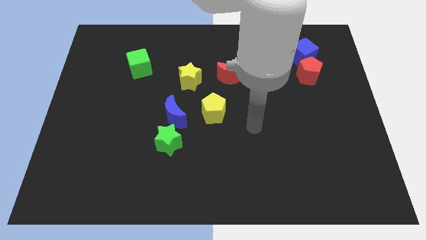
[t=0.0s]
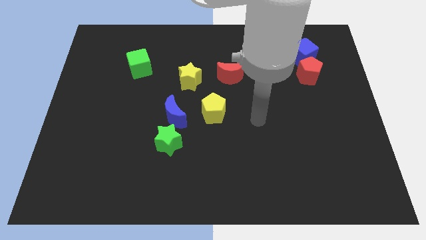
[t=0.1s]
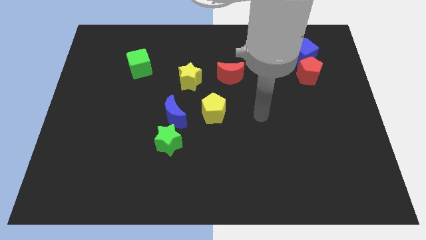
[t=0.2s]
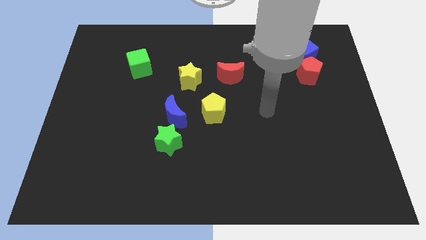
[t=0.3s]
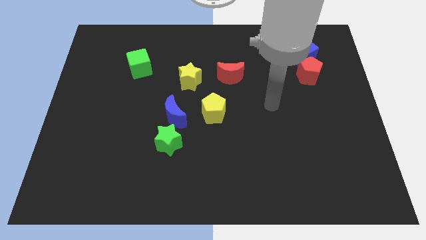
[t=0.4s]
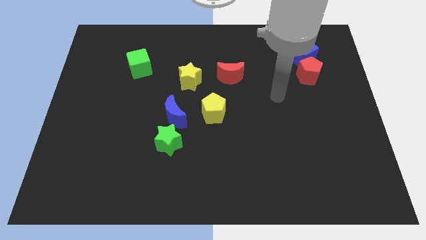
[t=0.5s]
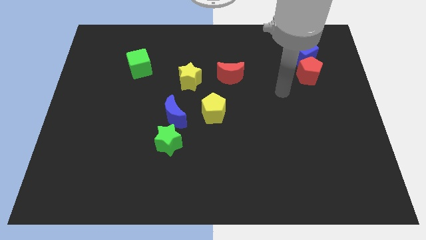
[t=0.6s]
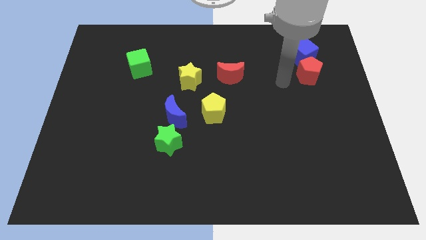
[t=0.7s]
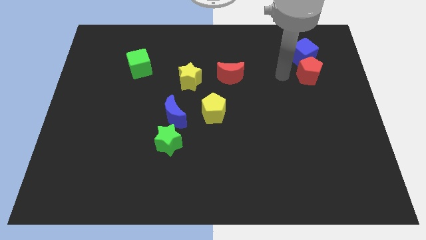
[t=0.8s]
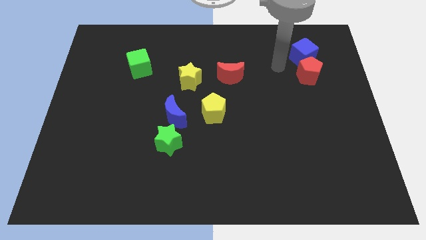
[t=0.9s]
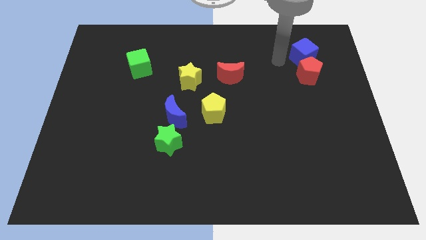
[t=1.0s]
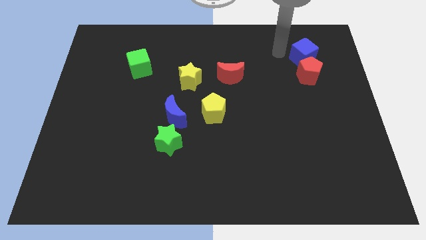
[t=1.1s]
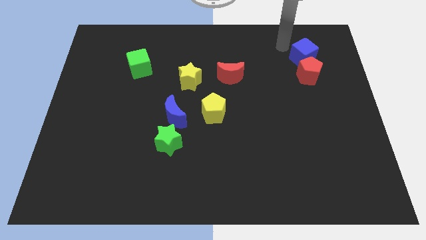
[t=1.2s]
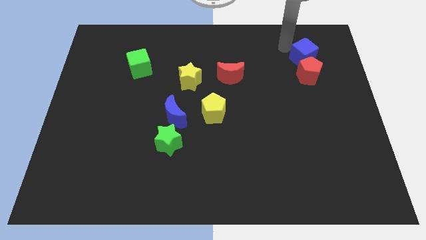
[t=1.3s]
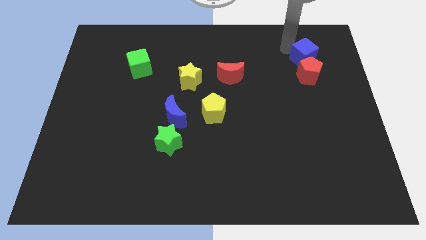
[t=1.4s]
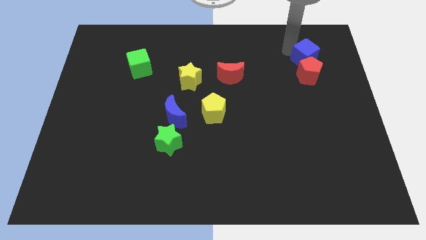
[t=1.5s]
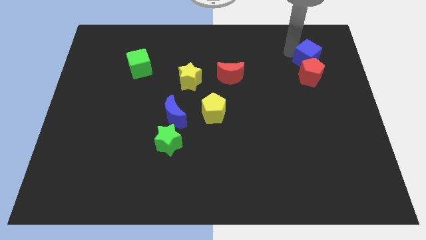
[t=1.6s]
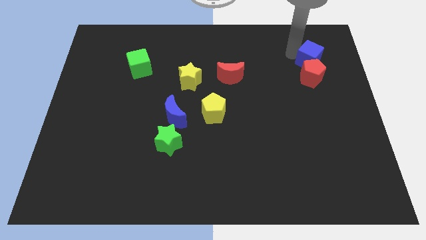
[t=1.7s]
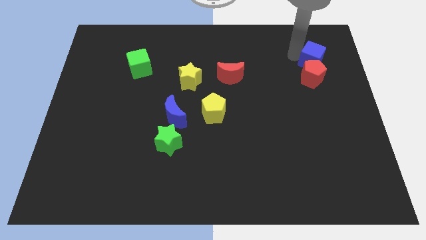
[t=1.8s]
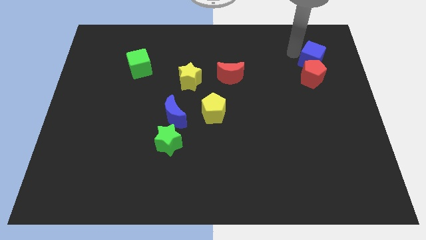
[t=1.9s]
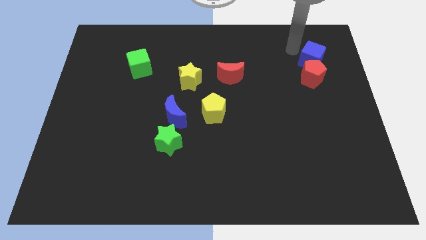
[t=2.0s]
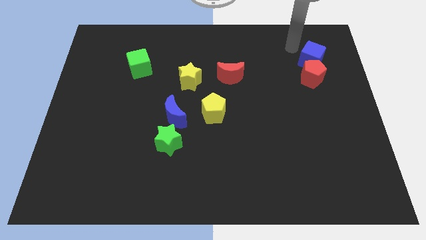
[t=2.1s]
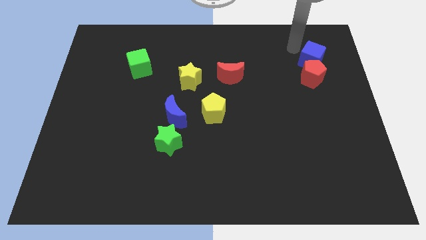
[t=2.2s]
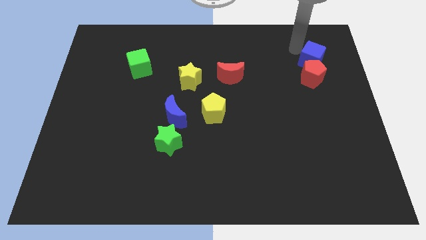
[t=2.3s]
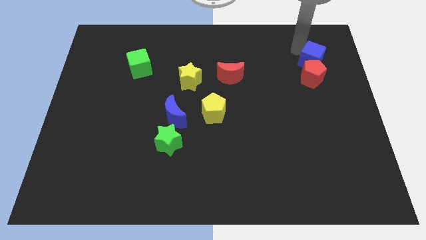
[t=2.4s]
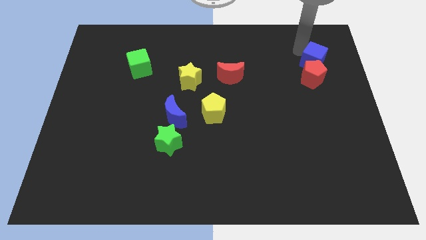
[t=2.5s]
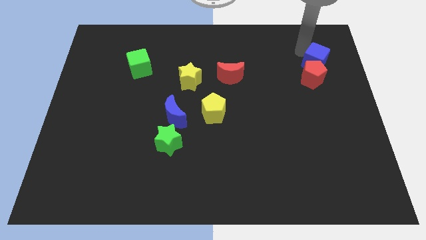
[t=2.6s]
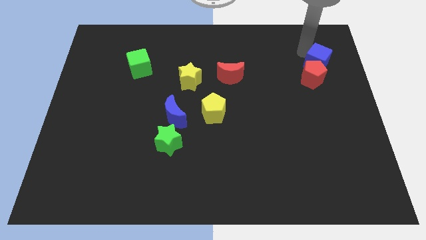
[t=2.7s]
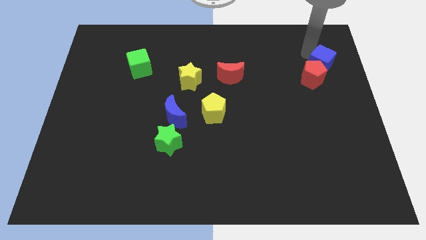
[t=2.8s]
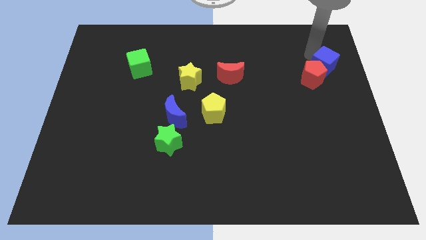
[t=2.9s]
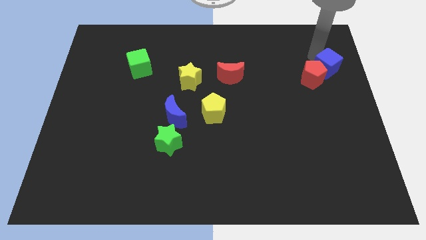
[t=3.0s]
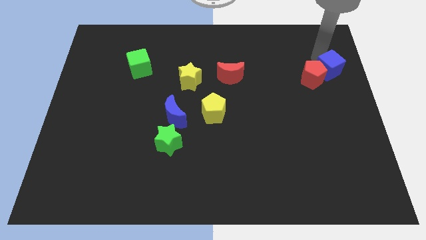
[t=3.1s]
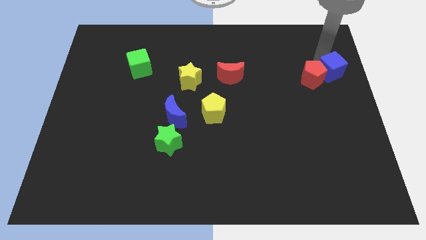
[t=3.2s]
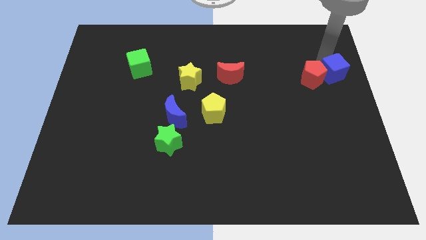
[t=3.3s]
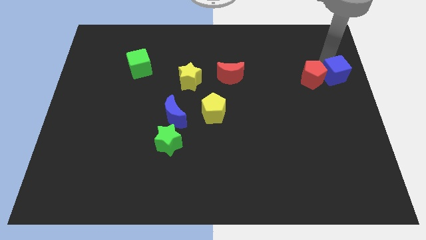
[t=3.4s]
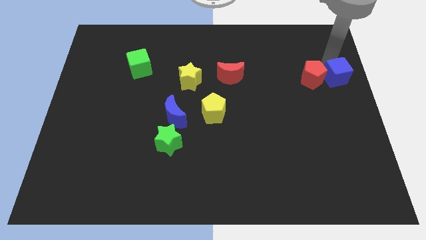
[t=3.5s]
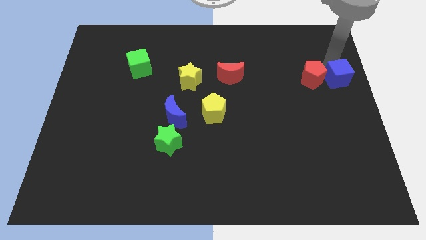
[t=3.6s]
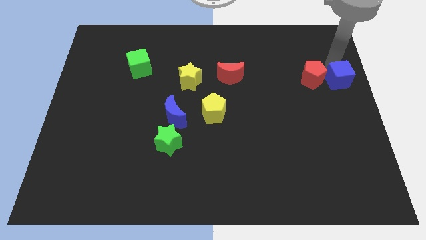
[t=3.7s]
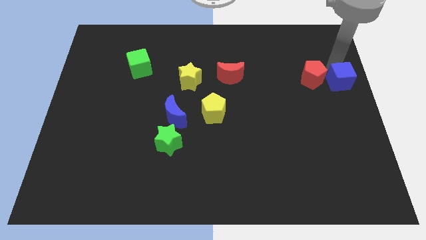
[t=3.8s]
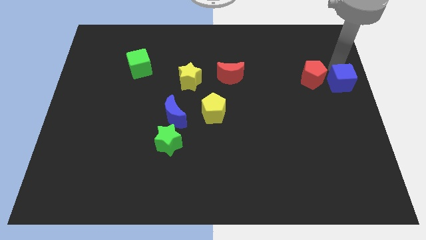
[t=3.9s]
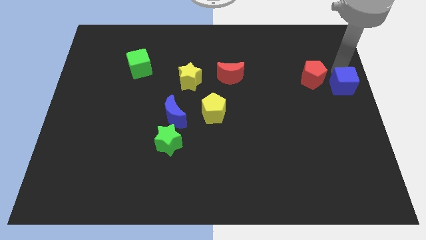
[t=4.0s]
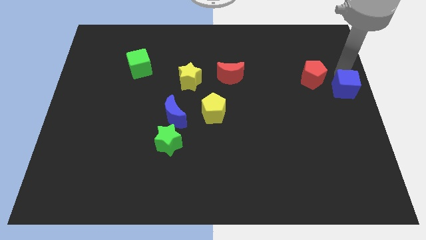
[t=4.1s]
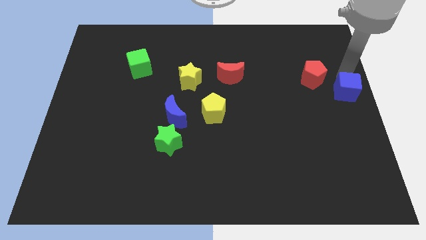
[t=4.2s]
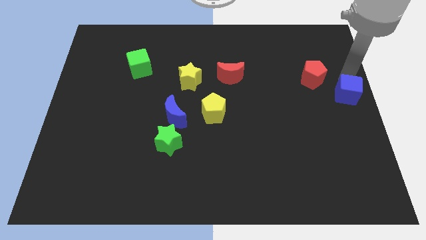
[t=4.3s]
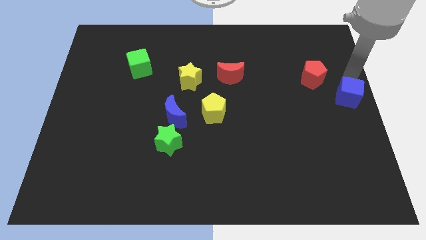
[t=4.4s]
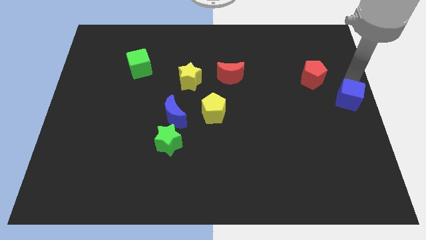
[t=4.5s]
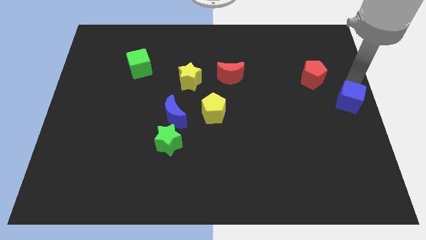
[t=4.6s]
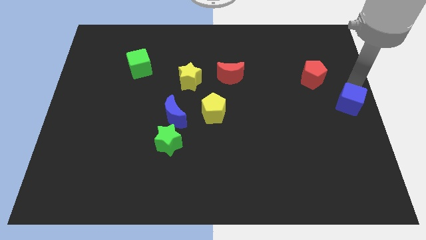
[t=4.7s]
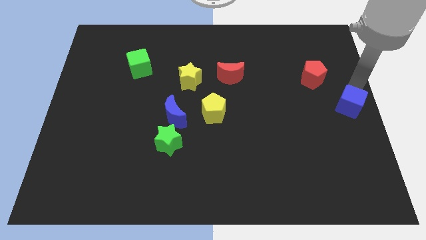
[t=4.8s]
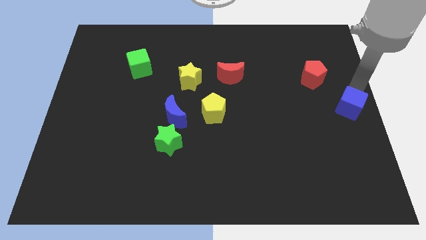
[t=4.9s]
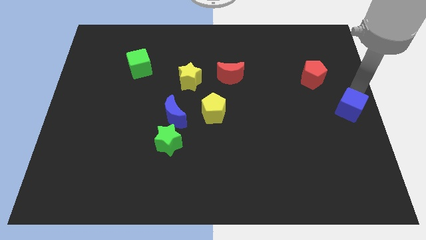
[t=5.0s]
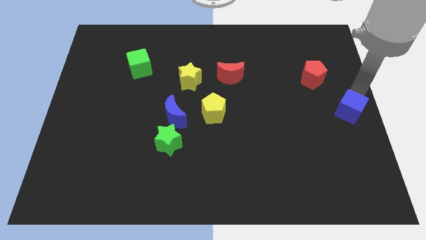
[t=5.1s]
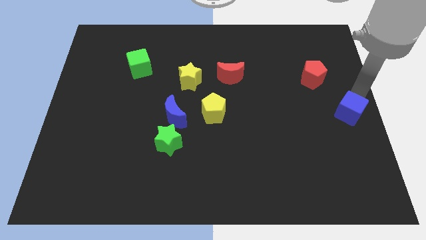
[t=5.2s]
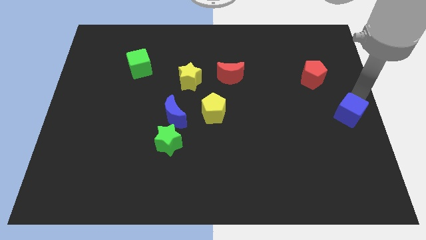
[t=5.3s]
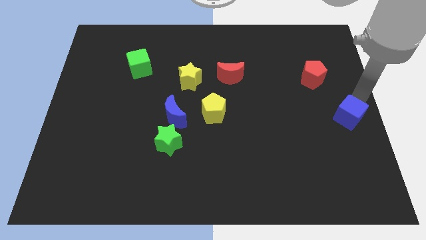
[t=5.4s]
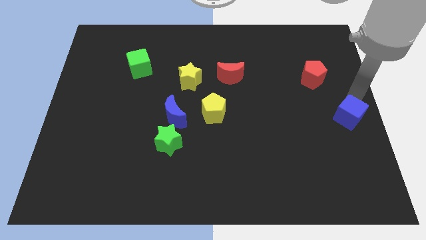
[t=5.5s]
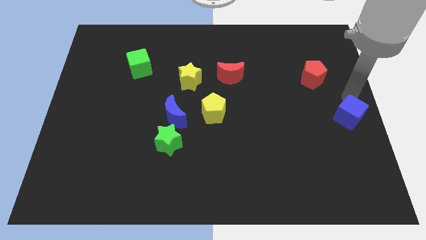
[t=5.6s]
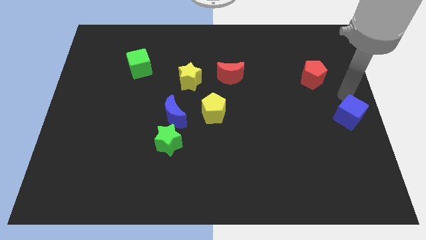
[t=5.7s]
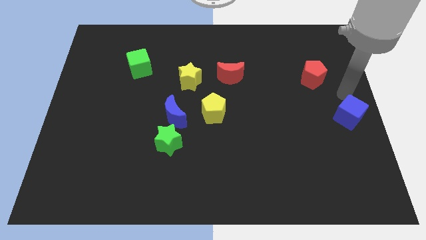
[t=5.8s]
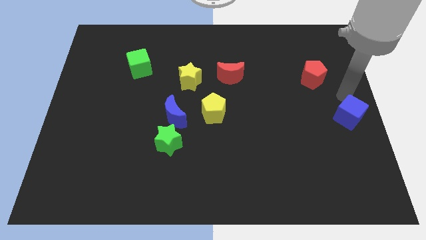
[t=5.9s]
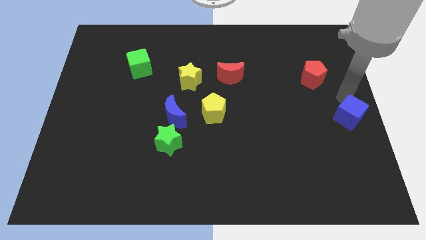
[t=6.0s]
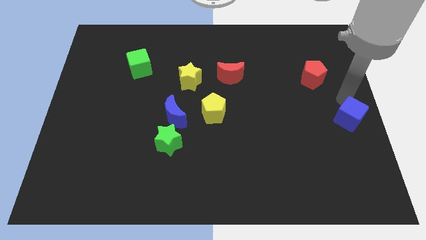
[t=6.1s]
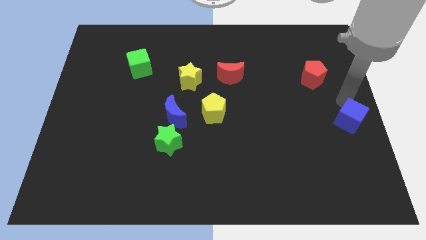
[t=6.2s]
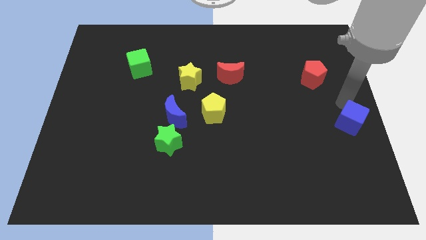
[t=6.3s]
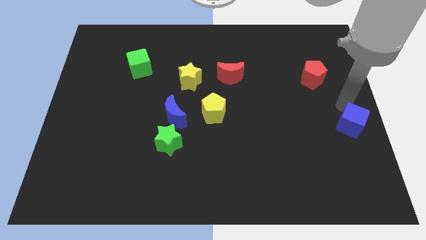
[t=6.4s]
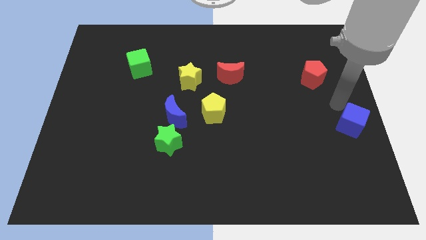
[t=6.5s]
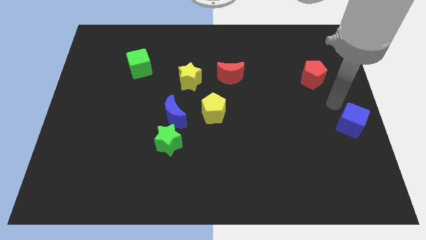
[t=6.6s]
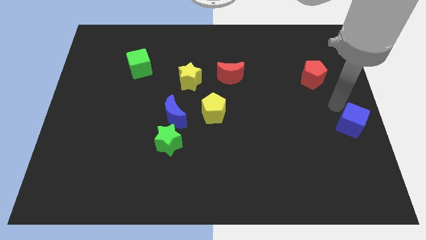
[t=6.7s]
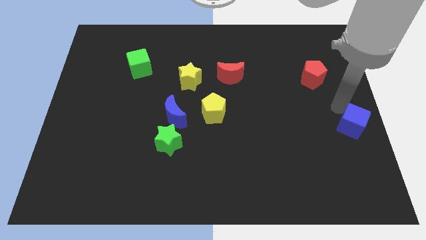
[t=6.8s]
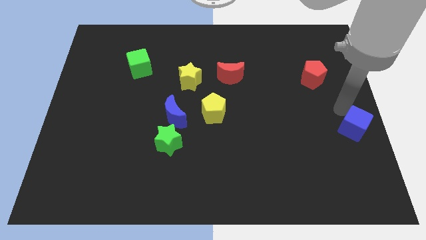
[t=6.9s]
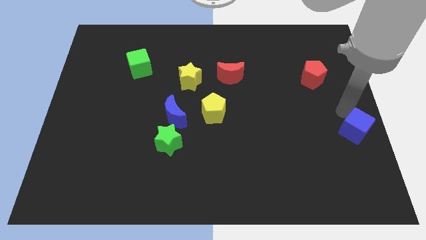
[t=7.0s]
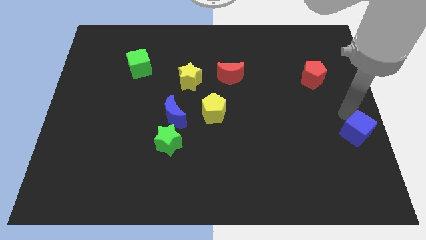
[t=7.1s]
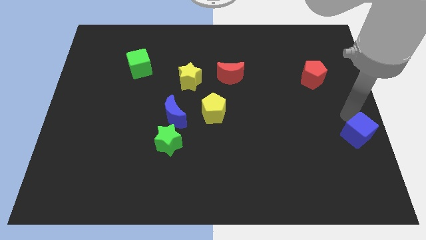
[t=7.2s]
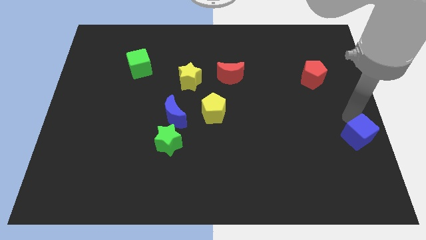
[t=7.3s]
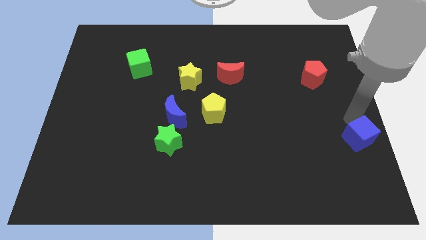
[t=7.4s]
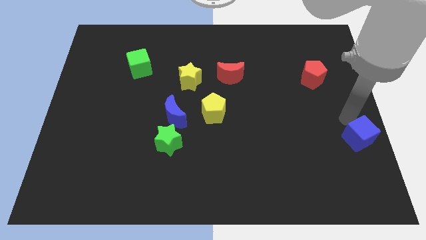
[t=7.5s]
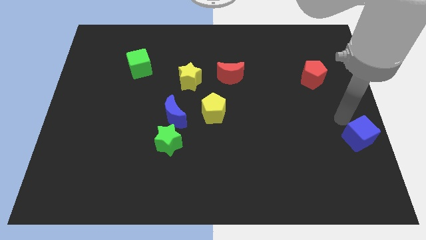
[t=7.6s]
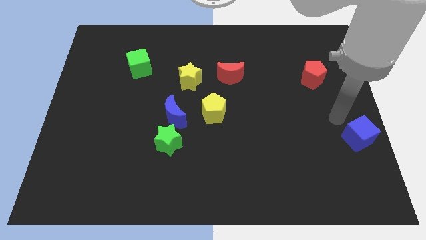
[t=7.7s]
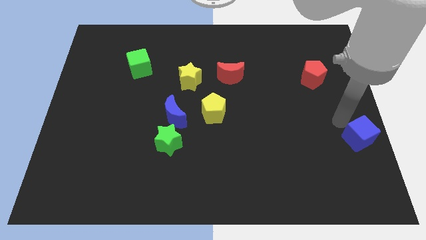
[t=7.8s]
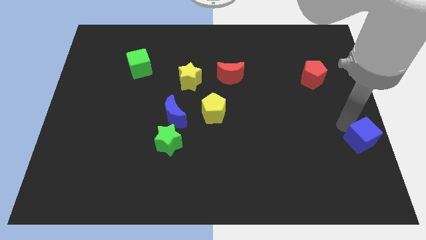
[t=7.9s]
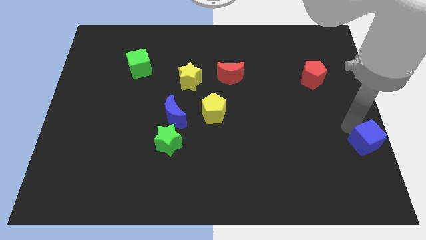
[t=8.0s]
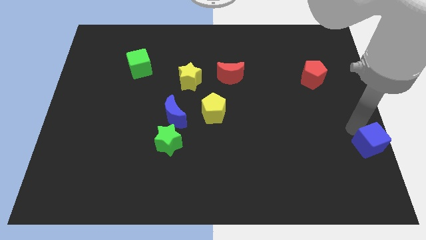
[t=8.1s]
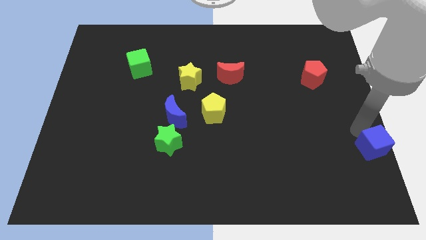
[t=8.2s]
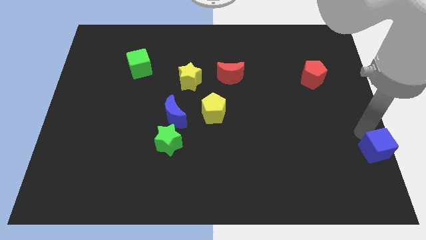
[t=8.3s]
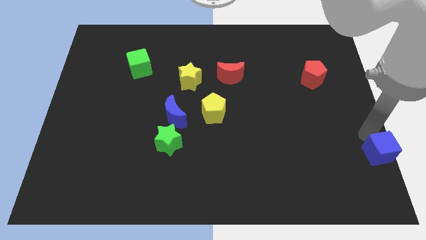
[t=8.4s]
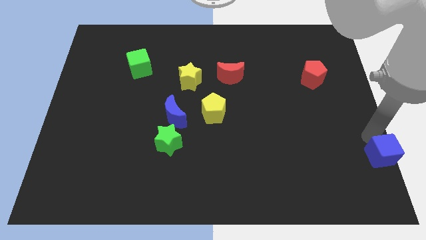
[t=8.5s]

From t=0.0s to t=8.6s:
push the blue cube to the lower right corner
